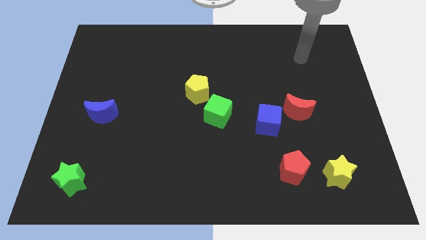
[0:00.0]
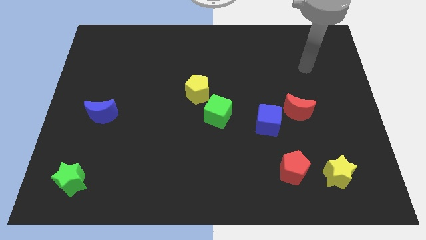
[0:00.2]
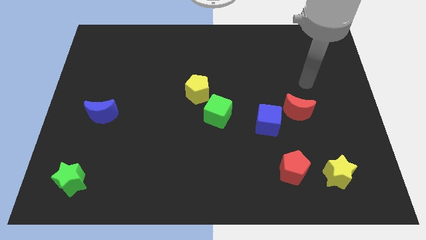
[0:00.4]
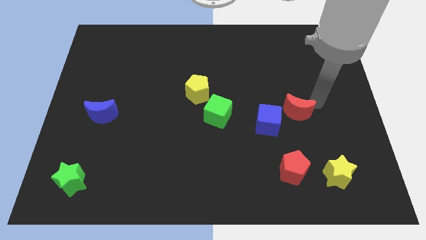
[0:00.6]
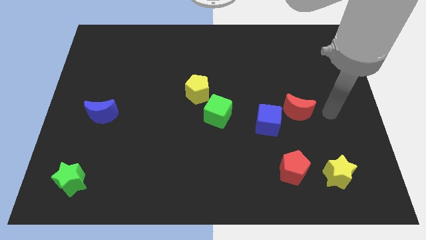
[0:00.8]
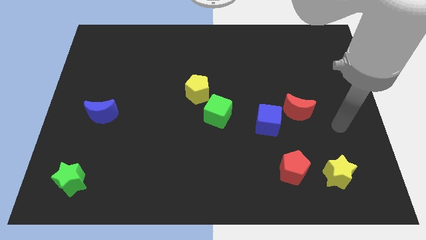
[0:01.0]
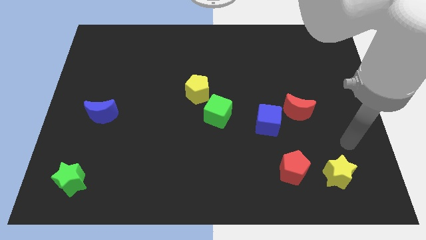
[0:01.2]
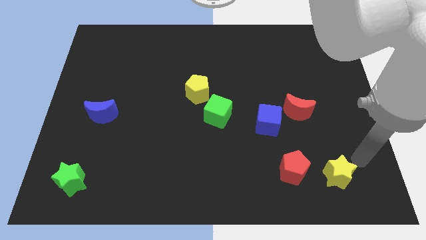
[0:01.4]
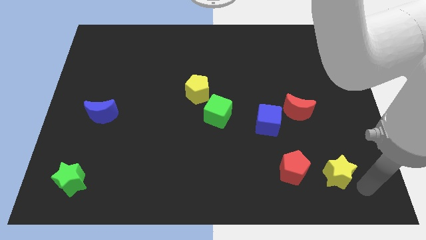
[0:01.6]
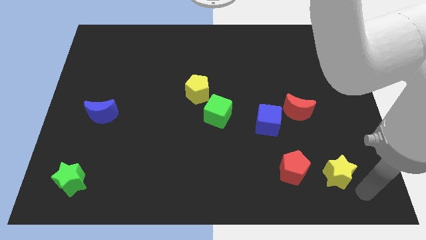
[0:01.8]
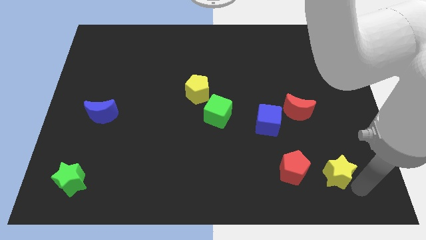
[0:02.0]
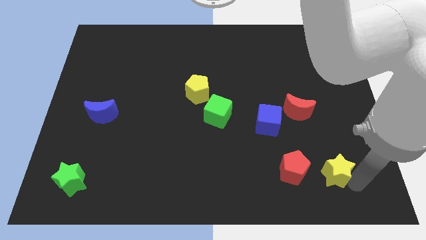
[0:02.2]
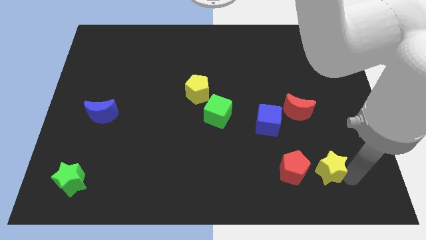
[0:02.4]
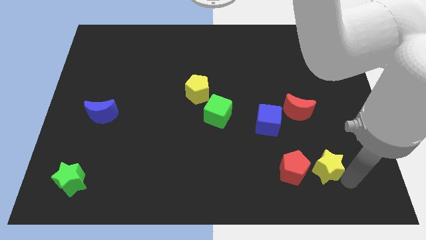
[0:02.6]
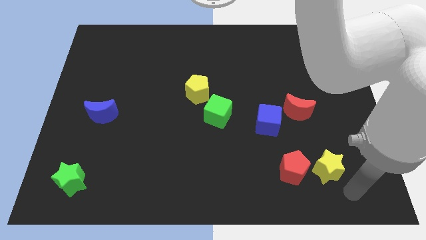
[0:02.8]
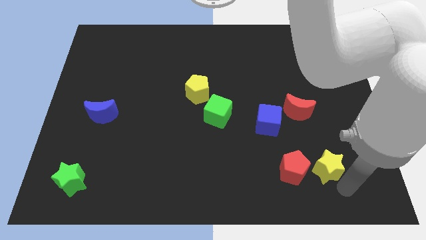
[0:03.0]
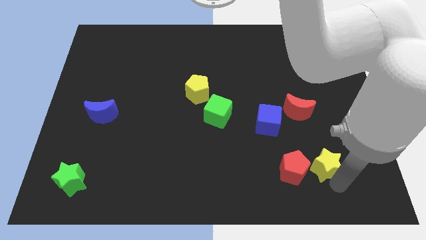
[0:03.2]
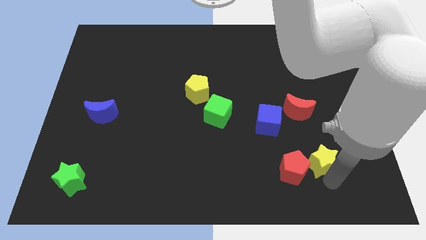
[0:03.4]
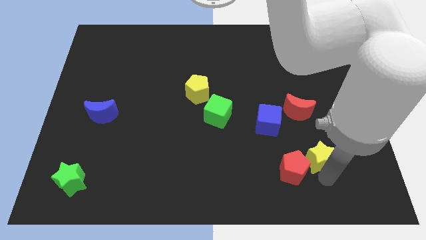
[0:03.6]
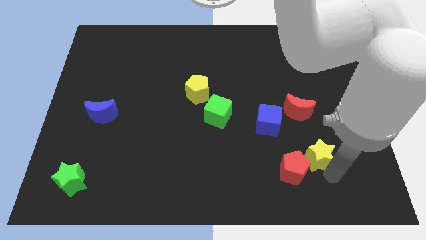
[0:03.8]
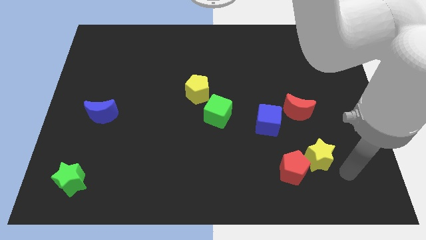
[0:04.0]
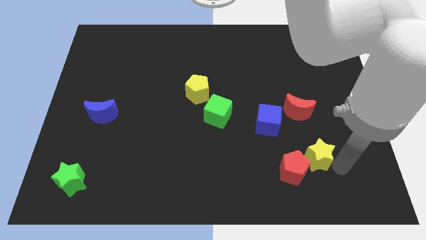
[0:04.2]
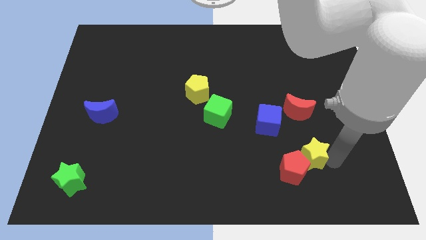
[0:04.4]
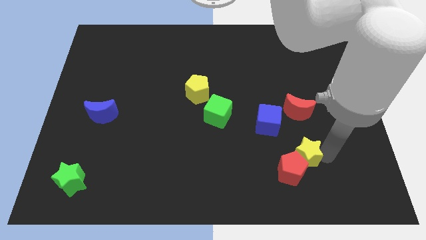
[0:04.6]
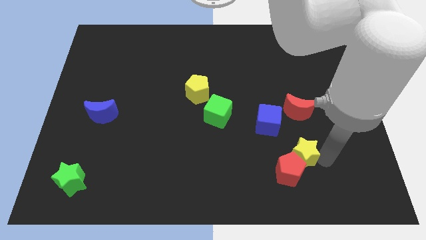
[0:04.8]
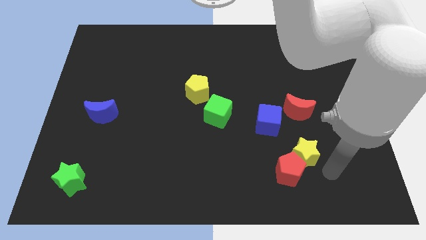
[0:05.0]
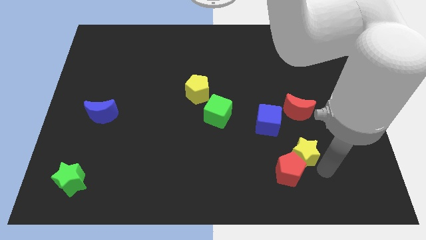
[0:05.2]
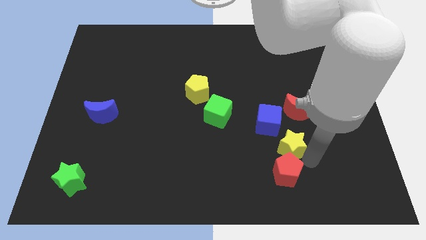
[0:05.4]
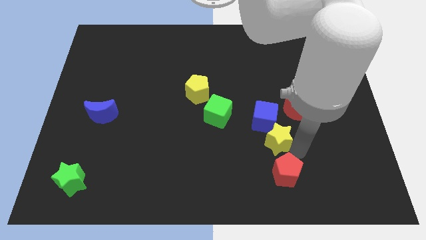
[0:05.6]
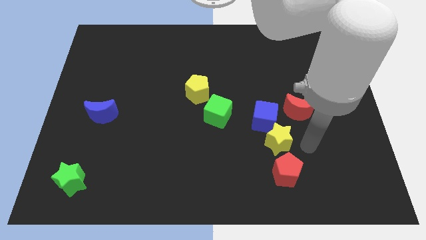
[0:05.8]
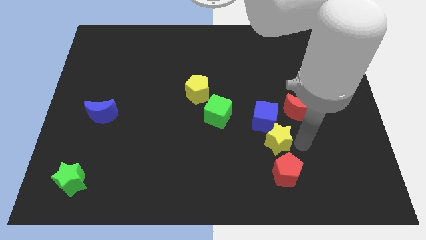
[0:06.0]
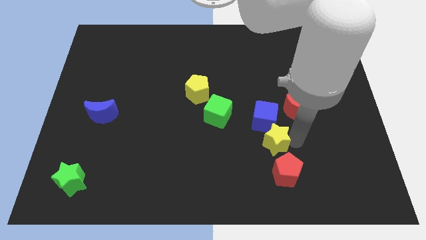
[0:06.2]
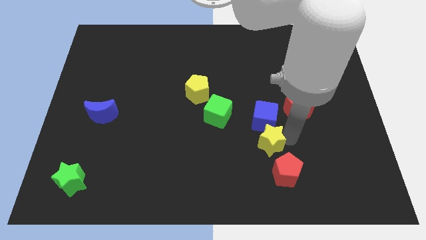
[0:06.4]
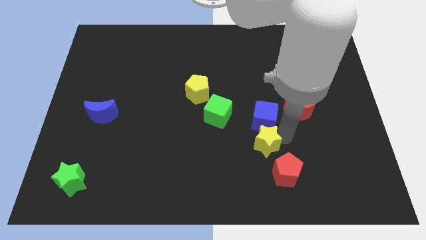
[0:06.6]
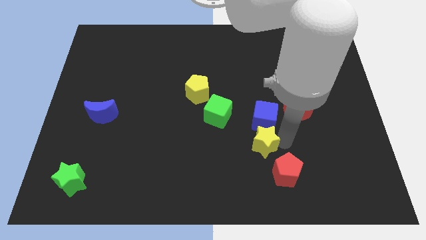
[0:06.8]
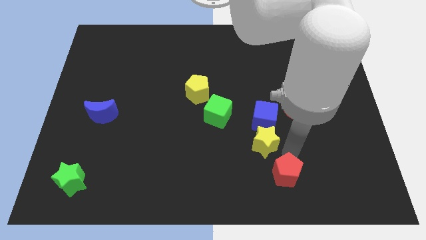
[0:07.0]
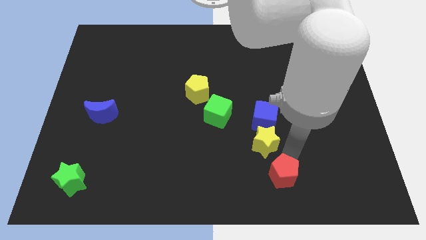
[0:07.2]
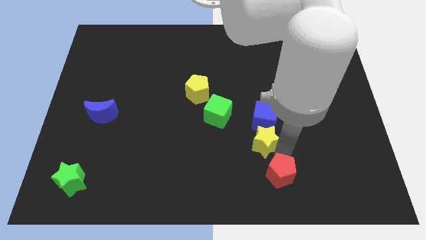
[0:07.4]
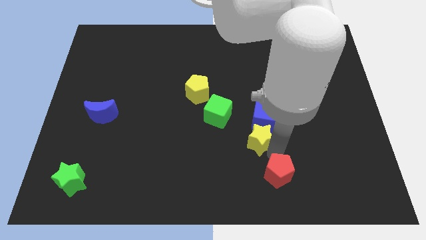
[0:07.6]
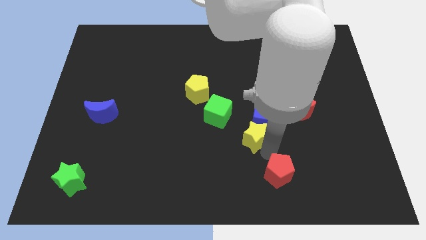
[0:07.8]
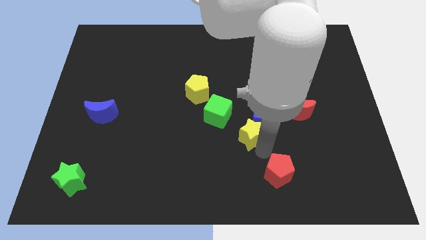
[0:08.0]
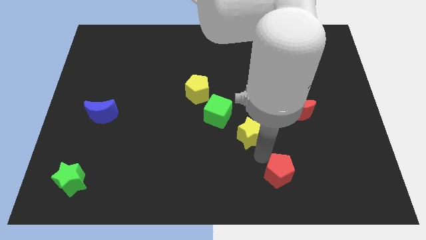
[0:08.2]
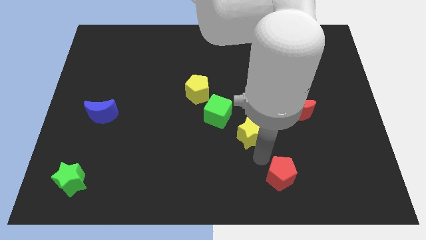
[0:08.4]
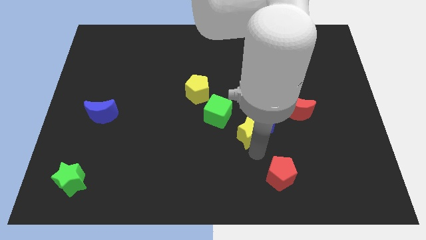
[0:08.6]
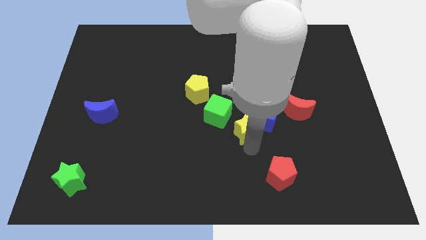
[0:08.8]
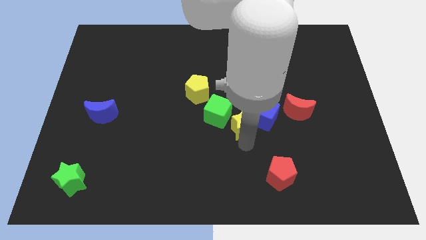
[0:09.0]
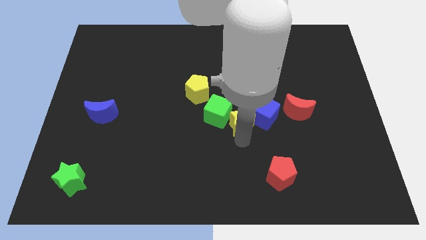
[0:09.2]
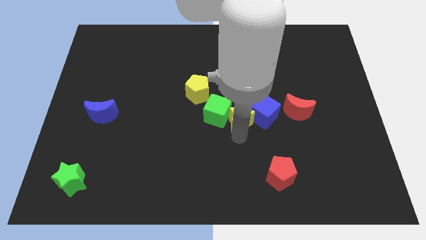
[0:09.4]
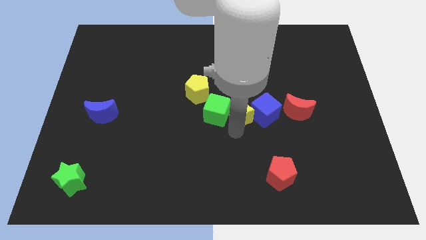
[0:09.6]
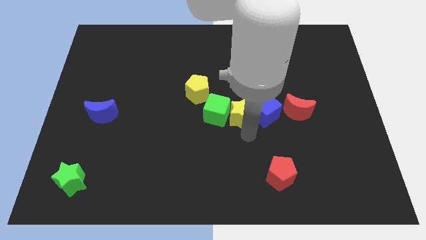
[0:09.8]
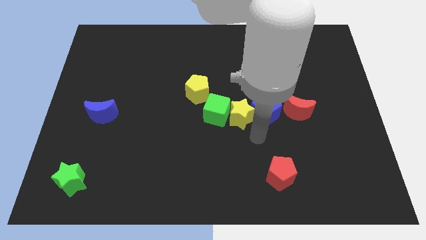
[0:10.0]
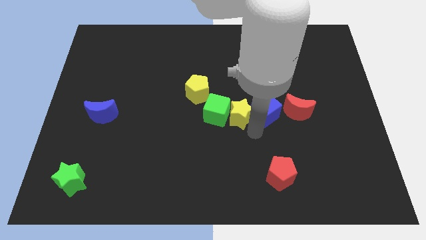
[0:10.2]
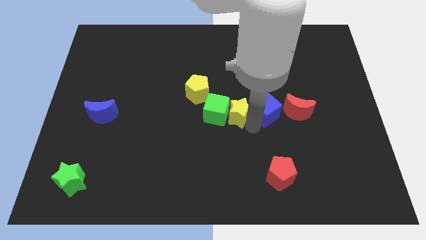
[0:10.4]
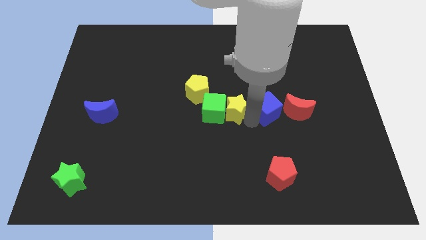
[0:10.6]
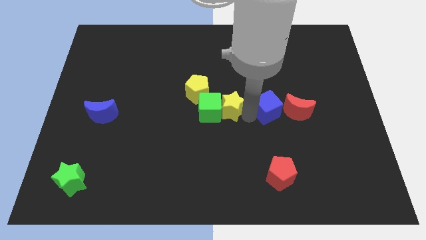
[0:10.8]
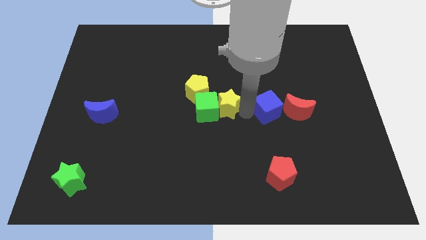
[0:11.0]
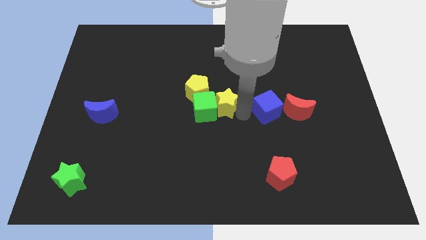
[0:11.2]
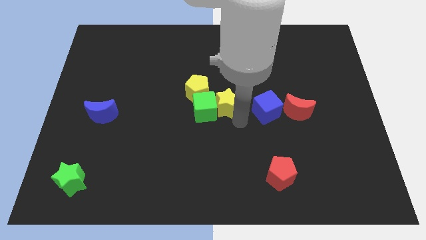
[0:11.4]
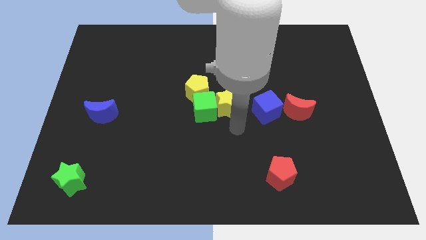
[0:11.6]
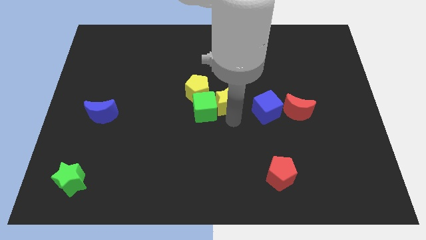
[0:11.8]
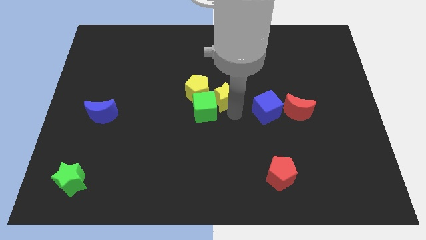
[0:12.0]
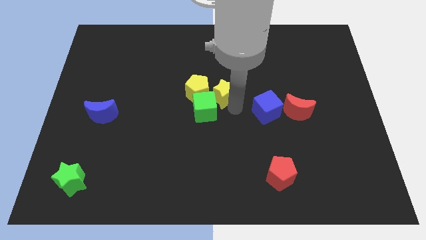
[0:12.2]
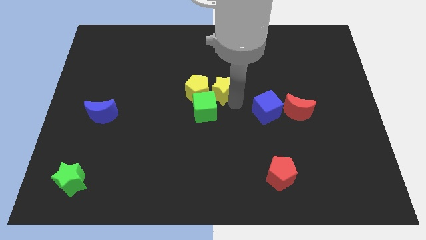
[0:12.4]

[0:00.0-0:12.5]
move the yellow star close to the yellow pentagon

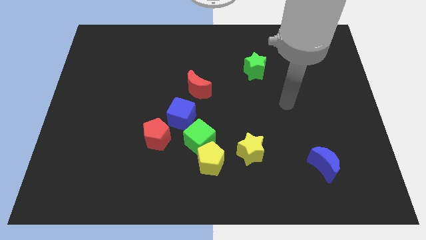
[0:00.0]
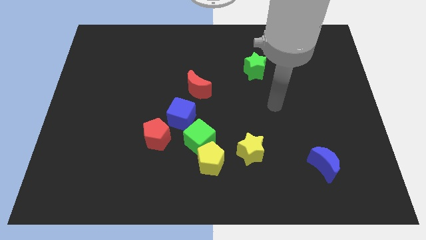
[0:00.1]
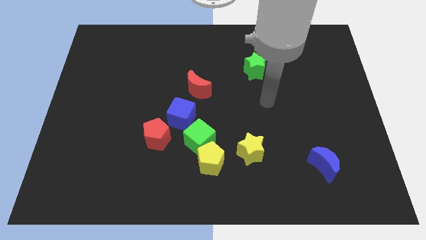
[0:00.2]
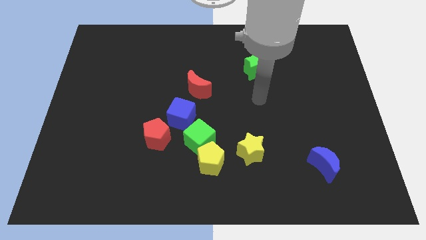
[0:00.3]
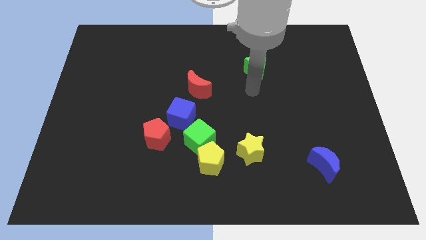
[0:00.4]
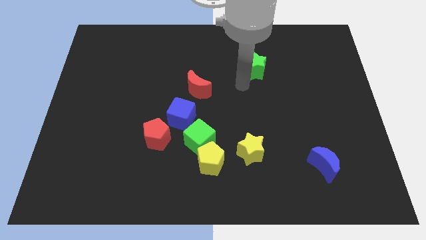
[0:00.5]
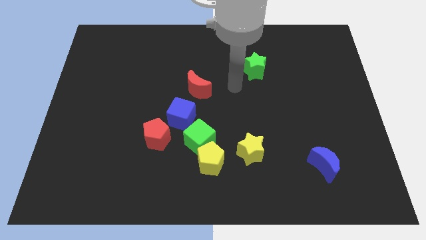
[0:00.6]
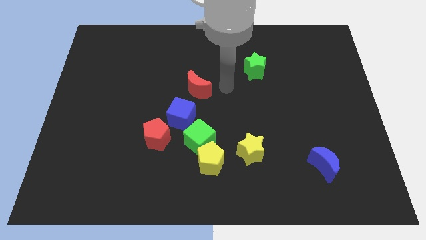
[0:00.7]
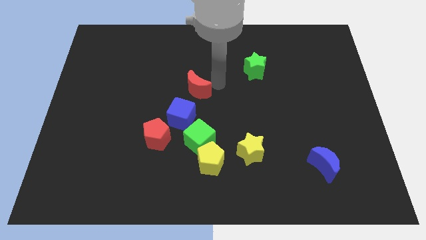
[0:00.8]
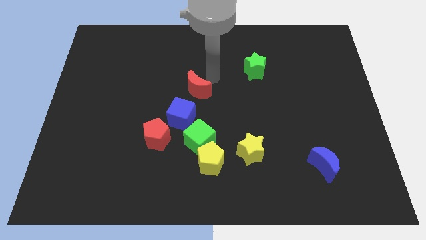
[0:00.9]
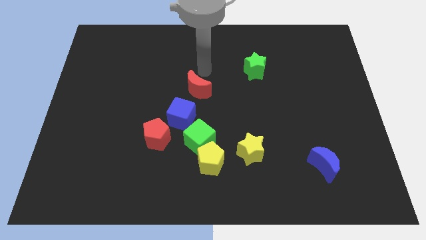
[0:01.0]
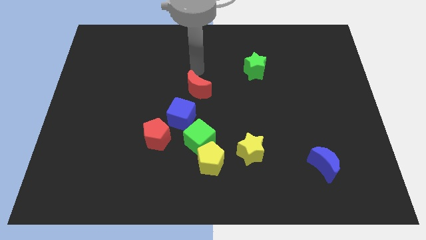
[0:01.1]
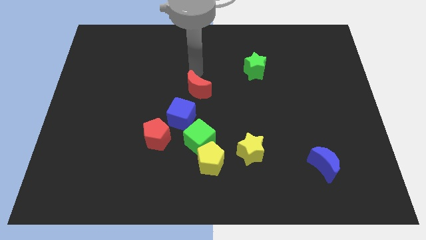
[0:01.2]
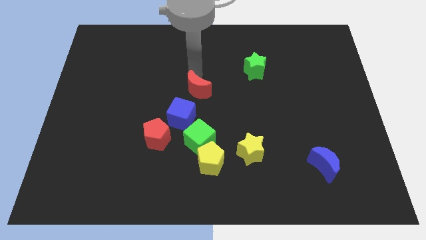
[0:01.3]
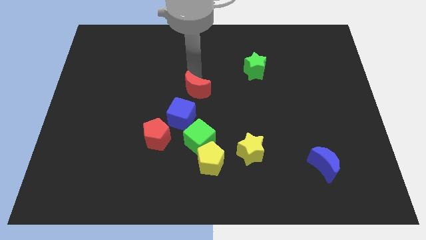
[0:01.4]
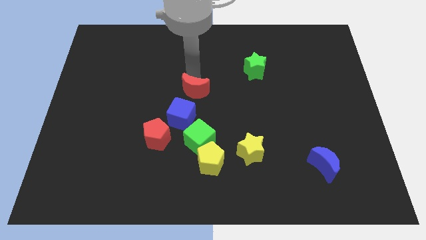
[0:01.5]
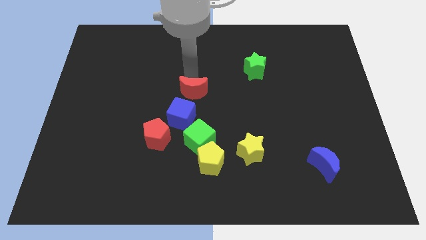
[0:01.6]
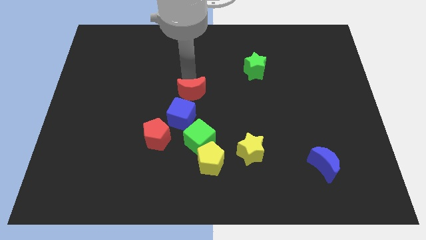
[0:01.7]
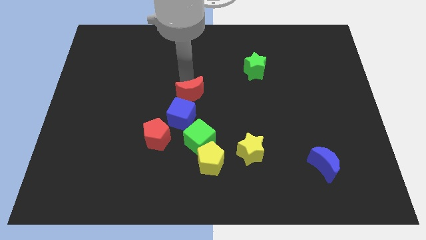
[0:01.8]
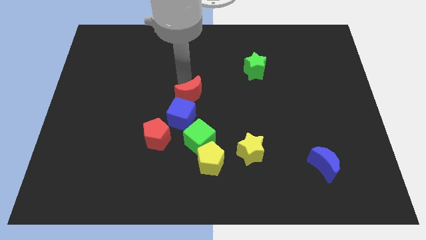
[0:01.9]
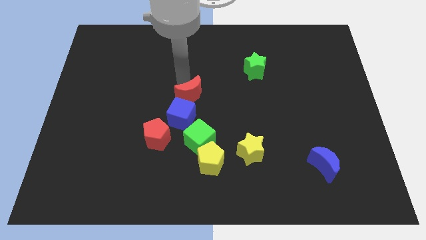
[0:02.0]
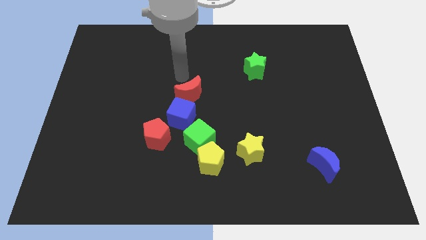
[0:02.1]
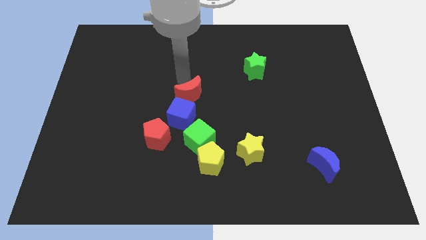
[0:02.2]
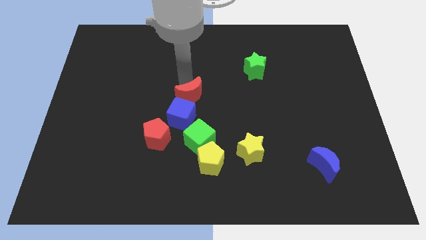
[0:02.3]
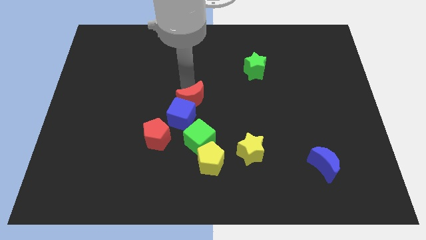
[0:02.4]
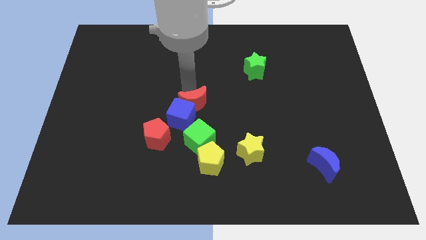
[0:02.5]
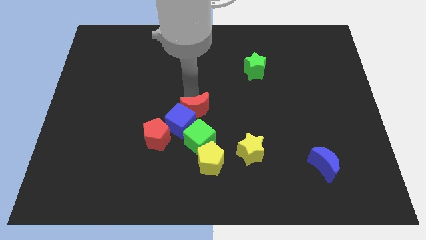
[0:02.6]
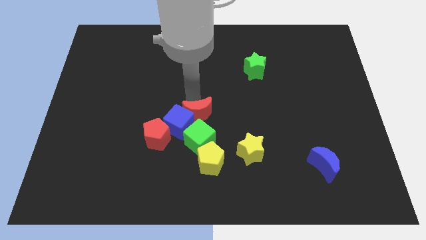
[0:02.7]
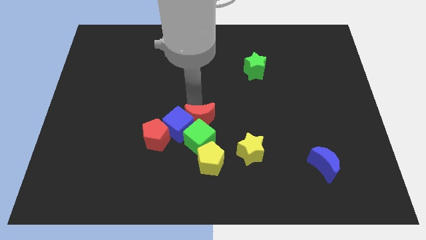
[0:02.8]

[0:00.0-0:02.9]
put the red moon next to the green cube
